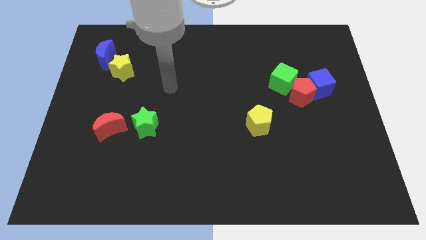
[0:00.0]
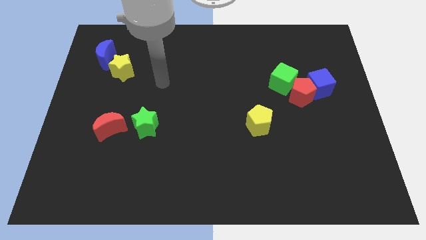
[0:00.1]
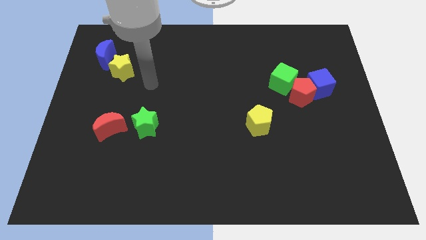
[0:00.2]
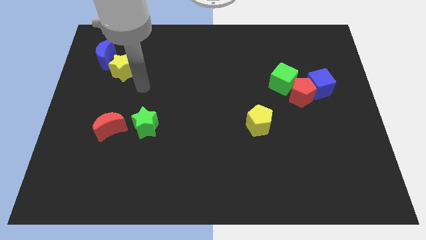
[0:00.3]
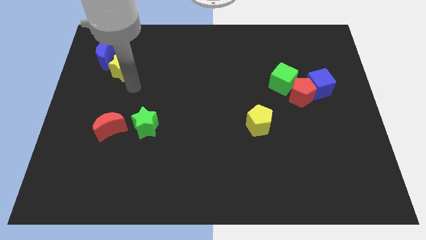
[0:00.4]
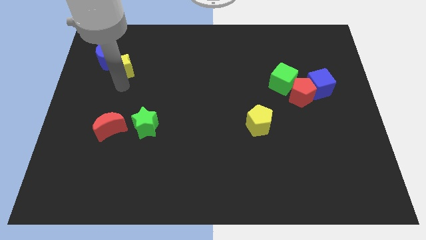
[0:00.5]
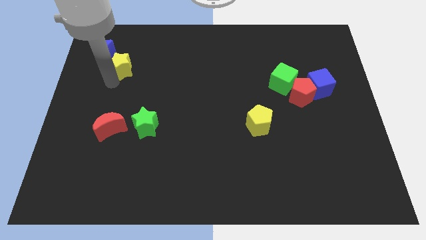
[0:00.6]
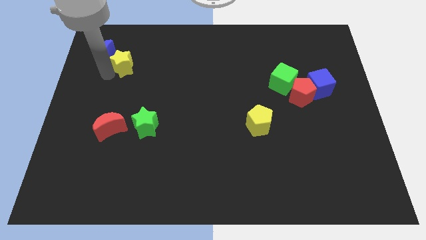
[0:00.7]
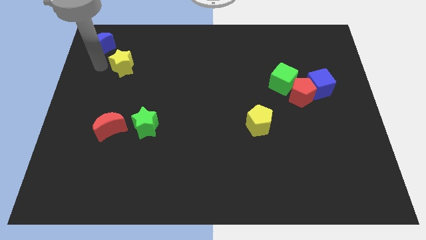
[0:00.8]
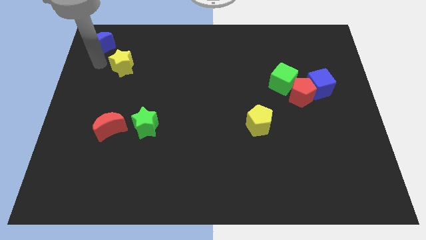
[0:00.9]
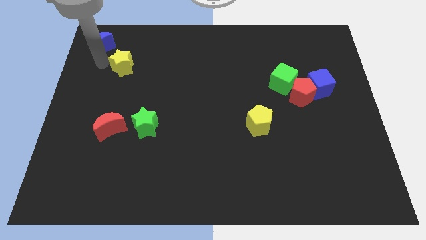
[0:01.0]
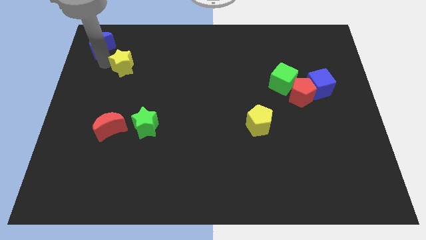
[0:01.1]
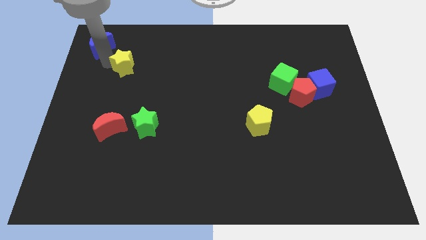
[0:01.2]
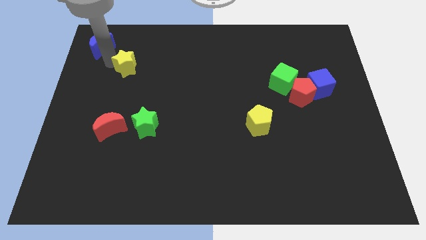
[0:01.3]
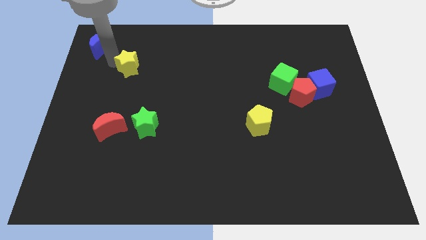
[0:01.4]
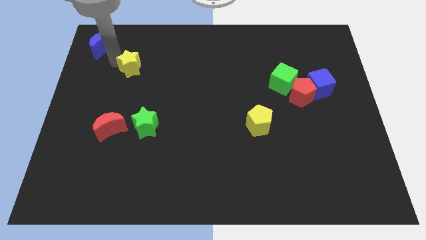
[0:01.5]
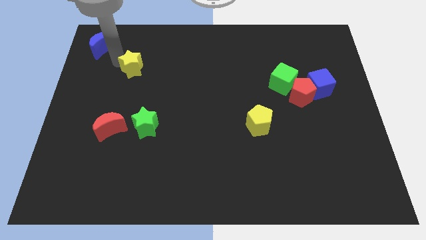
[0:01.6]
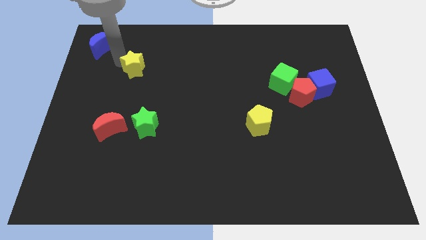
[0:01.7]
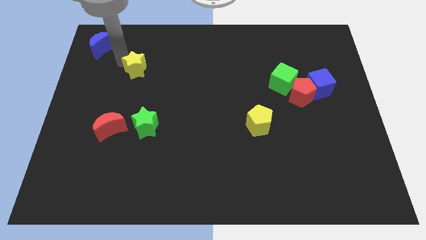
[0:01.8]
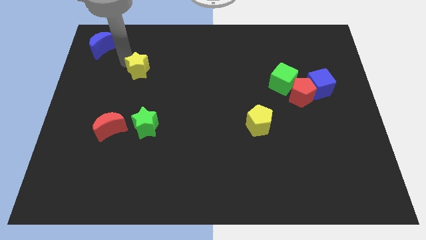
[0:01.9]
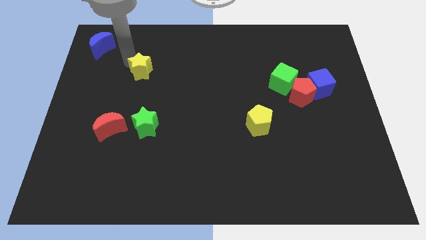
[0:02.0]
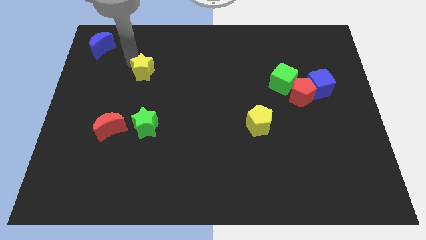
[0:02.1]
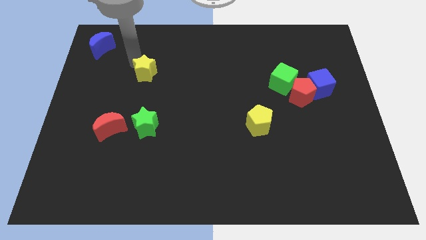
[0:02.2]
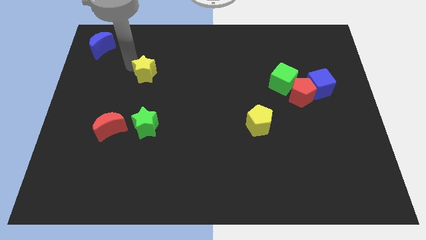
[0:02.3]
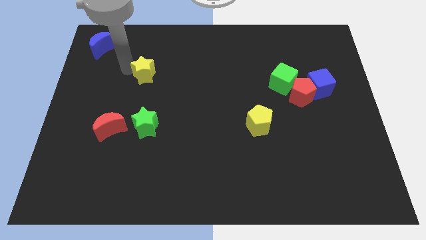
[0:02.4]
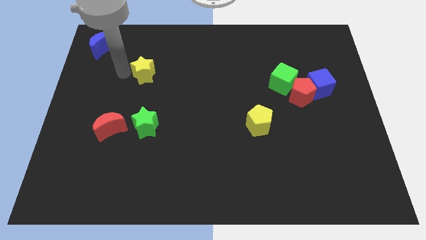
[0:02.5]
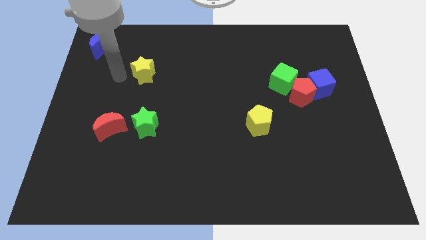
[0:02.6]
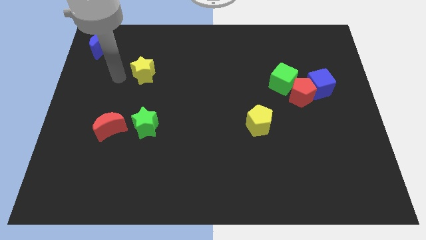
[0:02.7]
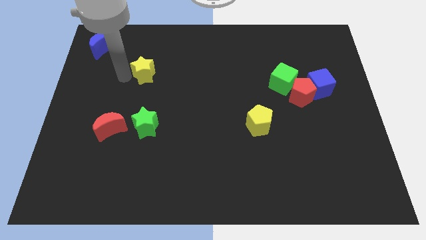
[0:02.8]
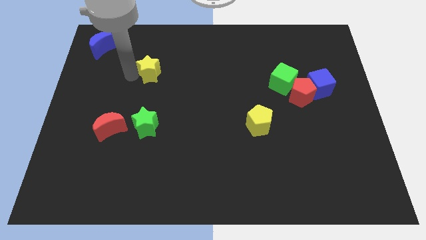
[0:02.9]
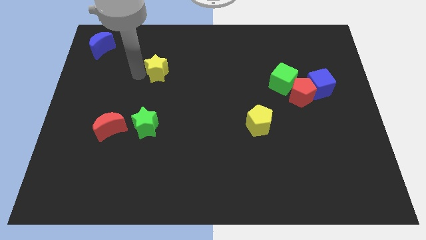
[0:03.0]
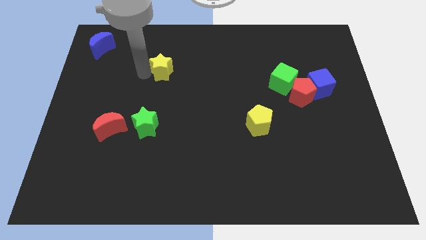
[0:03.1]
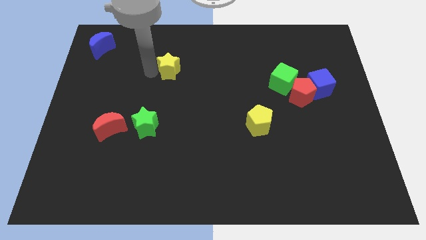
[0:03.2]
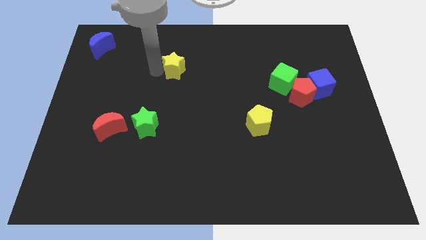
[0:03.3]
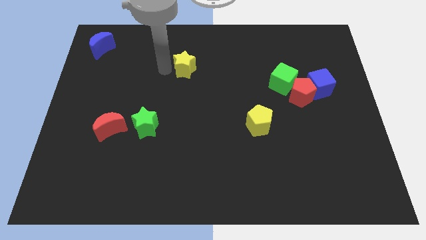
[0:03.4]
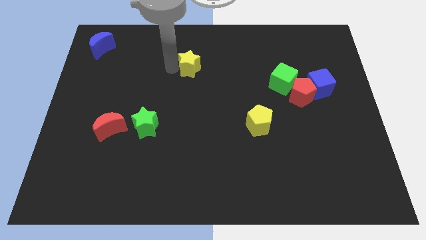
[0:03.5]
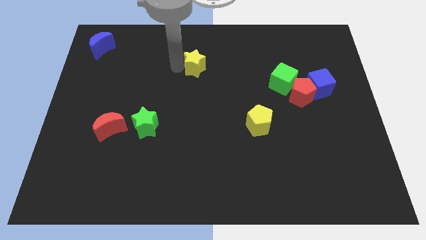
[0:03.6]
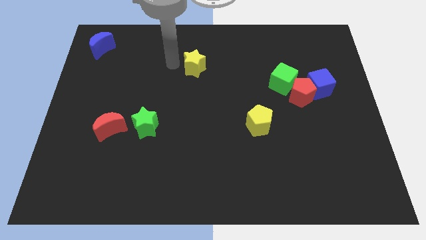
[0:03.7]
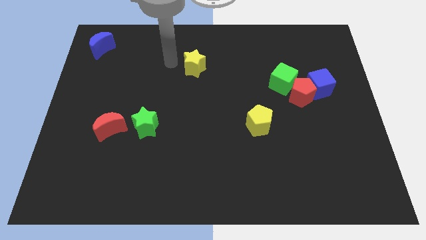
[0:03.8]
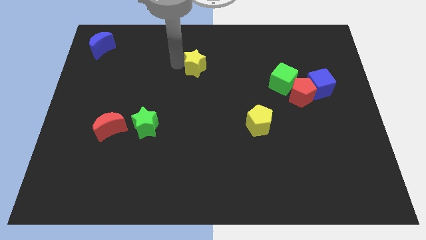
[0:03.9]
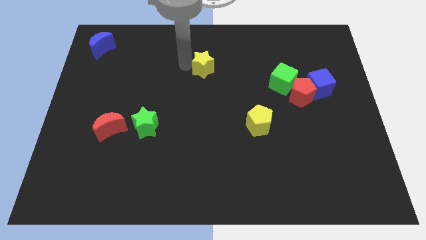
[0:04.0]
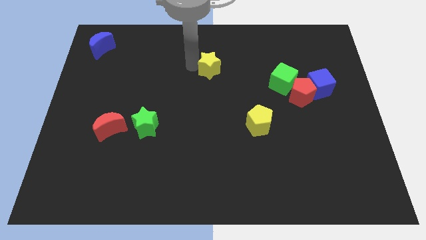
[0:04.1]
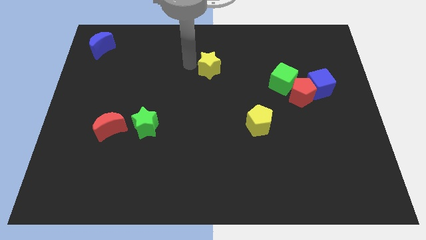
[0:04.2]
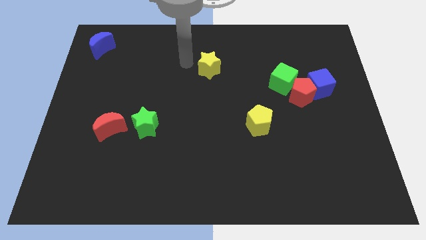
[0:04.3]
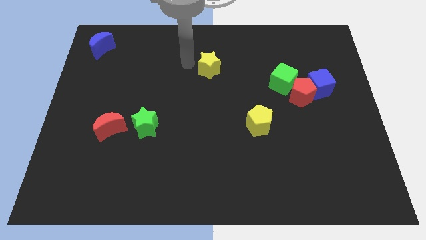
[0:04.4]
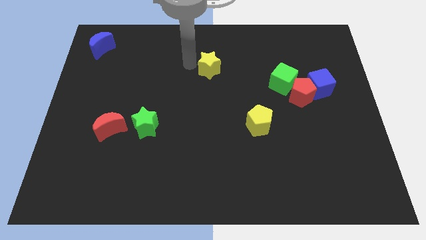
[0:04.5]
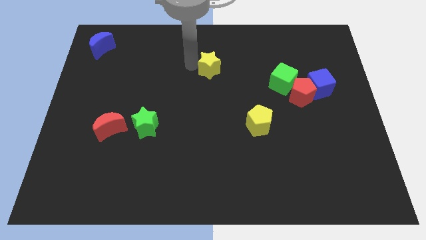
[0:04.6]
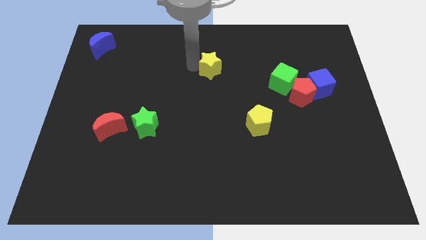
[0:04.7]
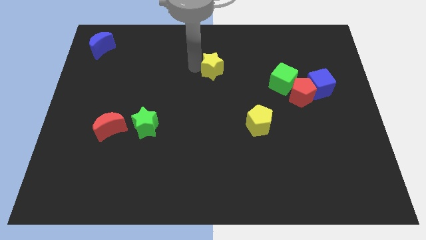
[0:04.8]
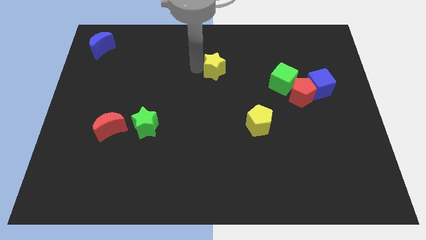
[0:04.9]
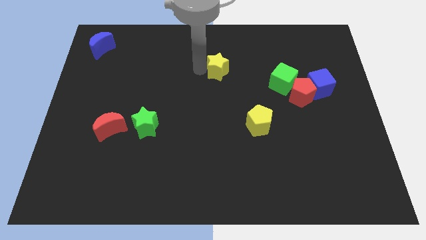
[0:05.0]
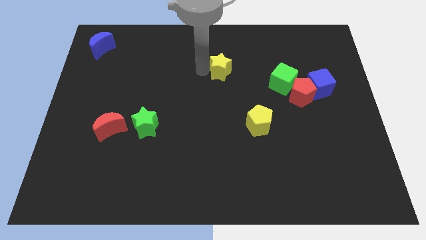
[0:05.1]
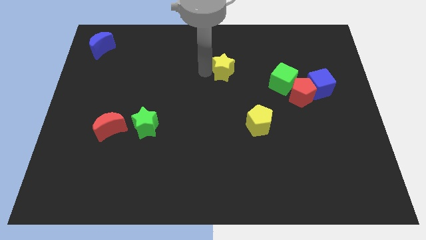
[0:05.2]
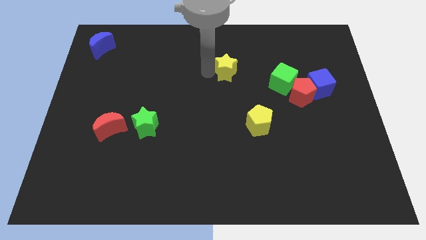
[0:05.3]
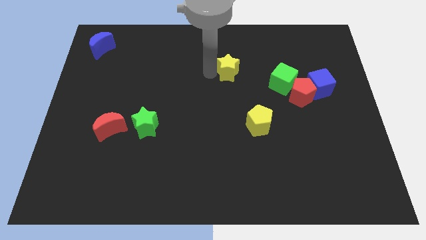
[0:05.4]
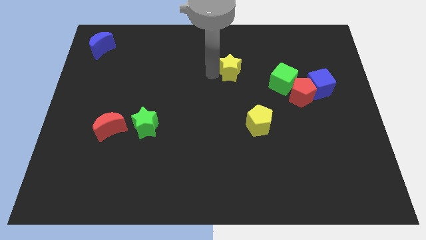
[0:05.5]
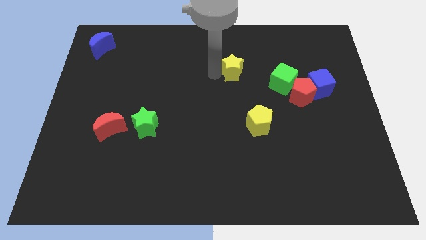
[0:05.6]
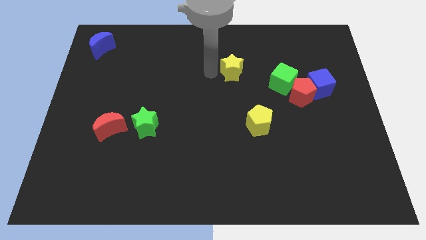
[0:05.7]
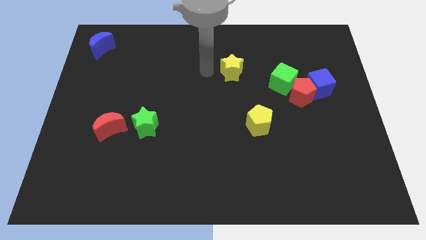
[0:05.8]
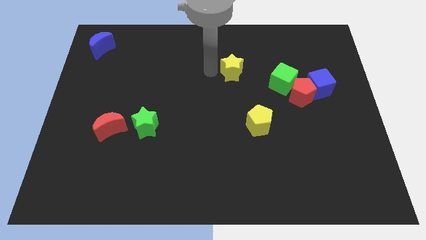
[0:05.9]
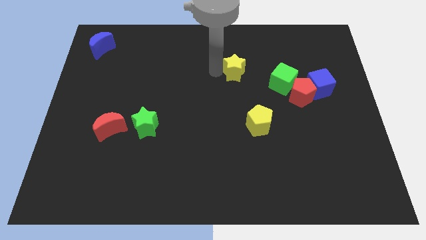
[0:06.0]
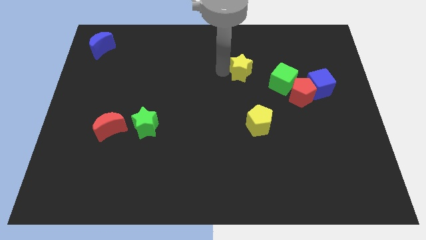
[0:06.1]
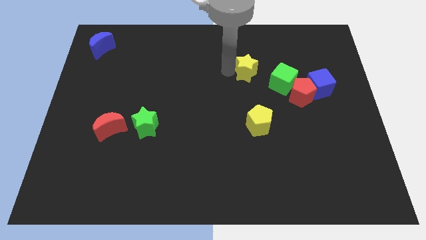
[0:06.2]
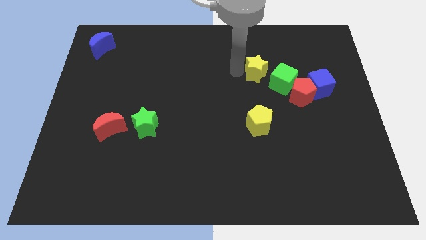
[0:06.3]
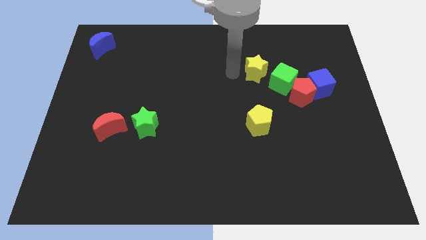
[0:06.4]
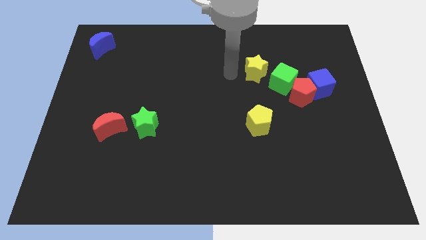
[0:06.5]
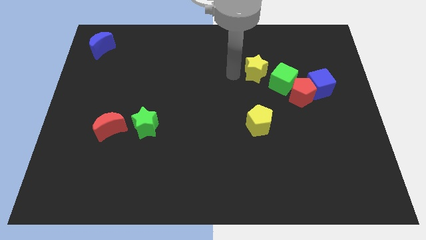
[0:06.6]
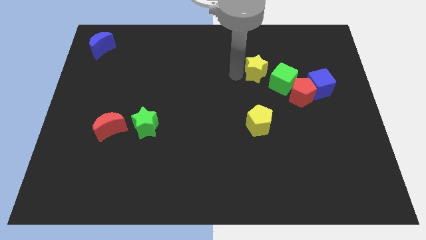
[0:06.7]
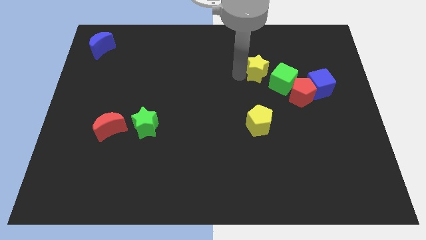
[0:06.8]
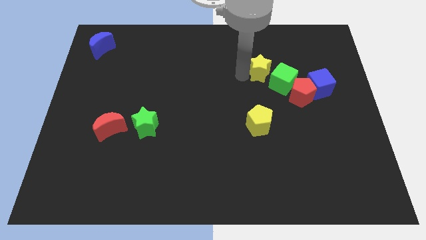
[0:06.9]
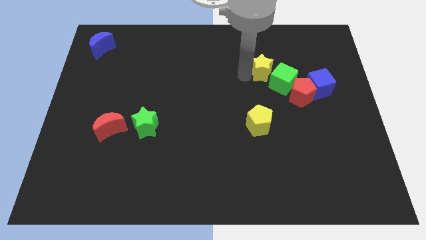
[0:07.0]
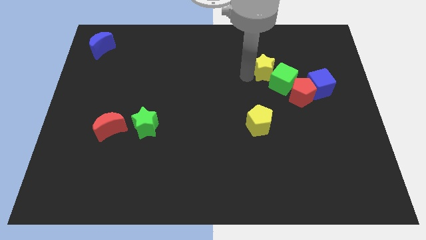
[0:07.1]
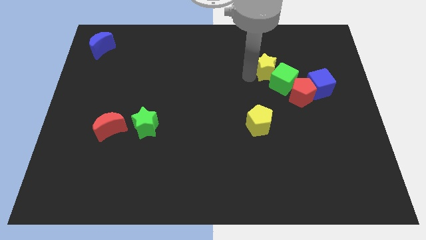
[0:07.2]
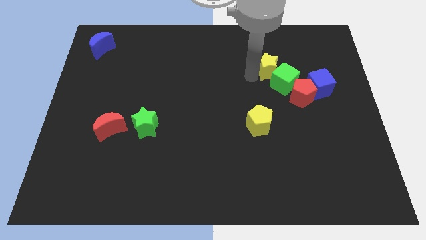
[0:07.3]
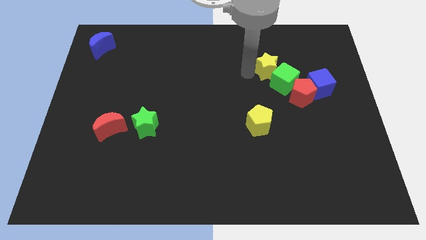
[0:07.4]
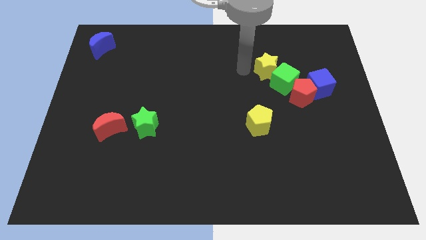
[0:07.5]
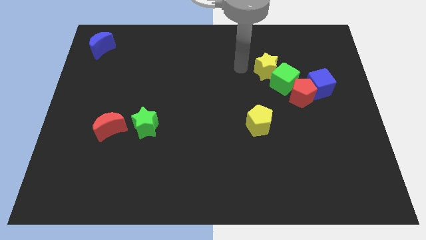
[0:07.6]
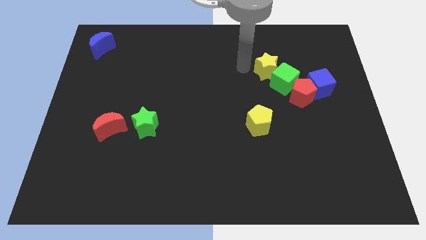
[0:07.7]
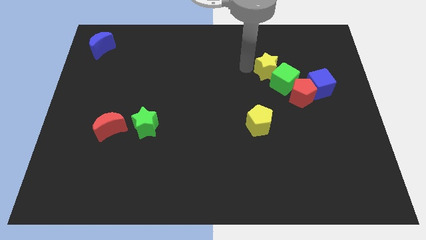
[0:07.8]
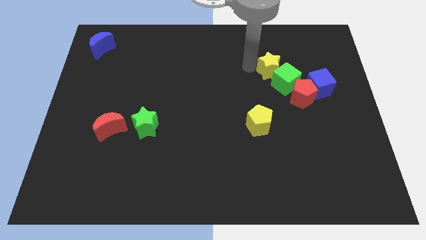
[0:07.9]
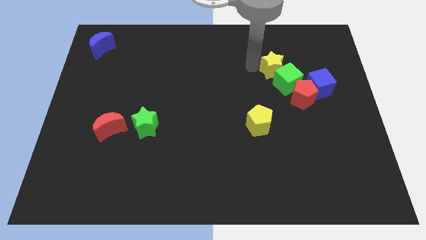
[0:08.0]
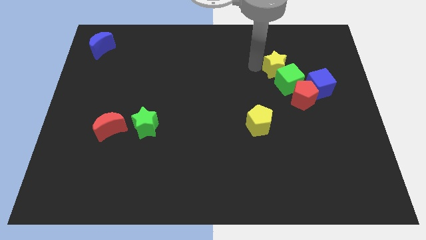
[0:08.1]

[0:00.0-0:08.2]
slide the yellow star to the top left of the blue cube
